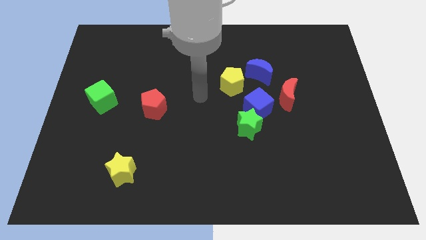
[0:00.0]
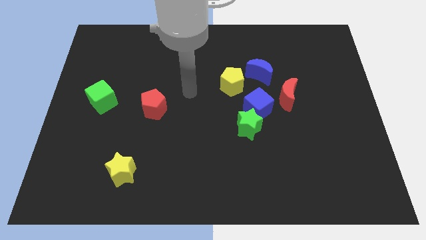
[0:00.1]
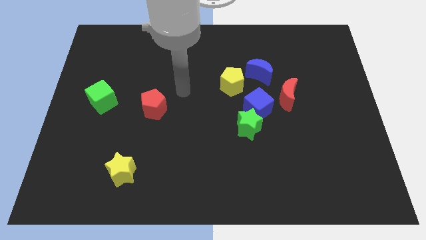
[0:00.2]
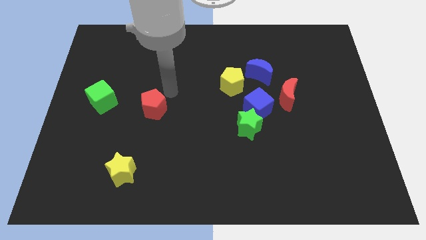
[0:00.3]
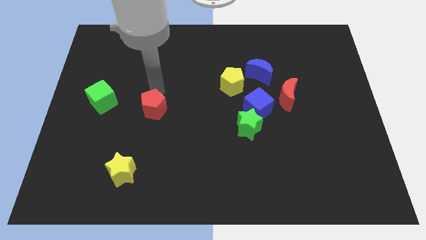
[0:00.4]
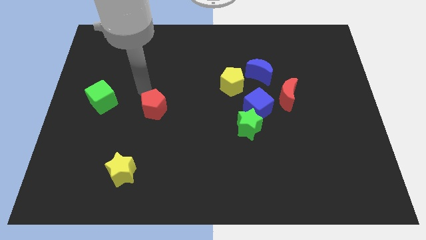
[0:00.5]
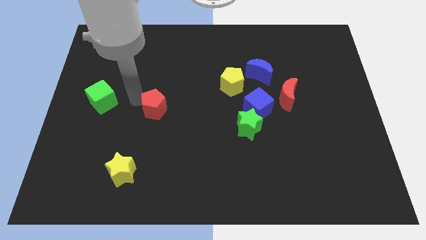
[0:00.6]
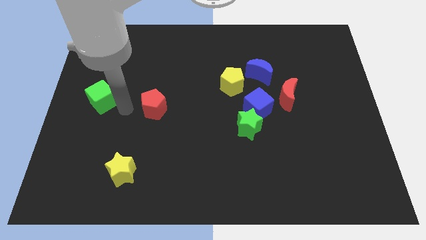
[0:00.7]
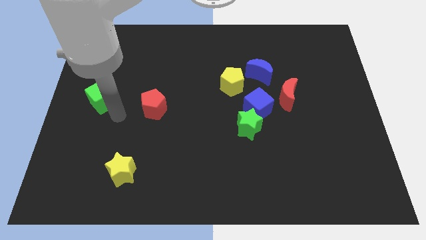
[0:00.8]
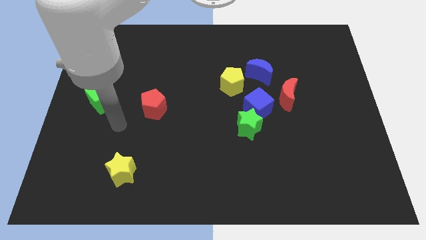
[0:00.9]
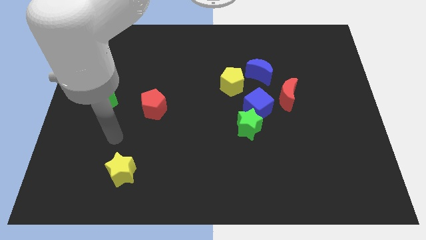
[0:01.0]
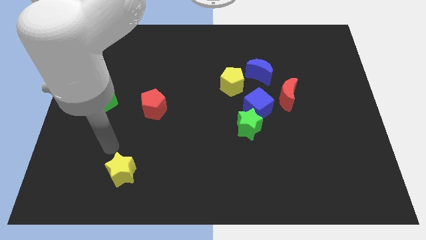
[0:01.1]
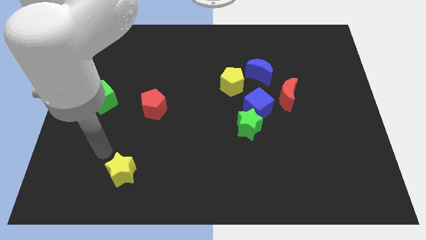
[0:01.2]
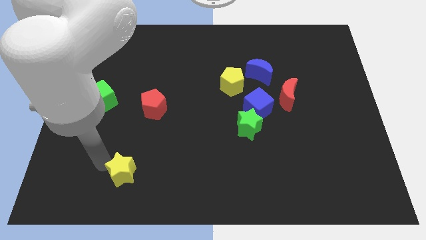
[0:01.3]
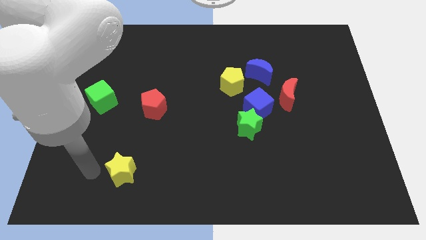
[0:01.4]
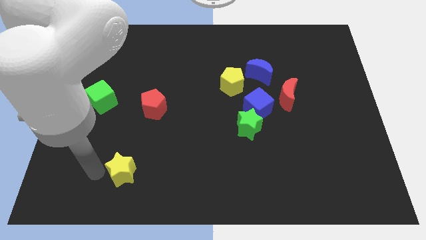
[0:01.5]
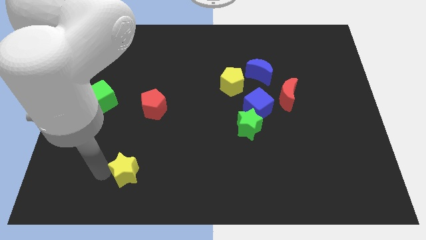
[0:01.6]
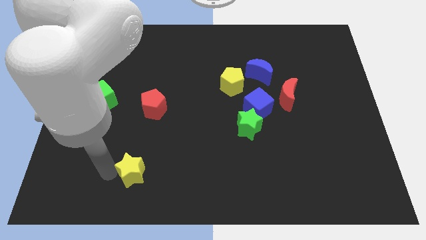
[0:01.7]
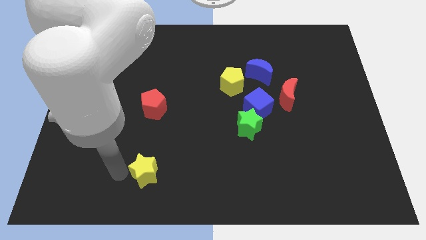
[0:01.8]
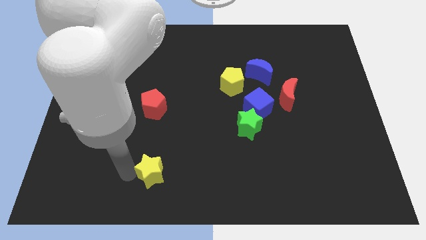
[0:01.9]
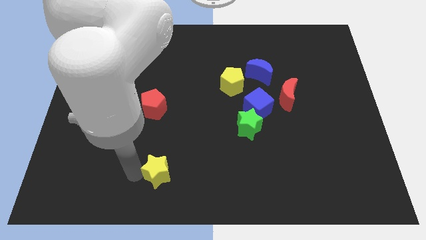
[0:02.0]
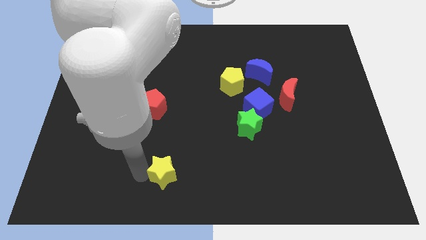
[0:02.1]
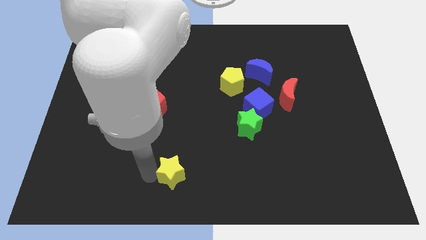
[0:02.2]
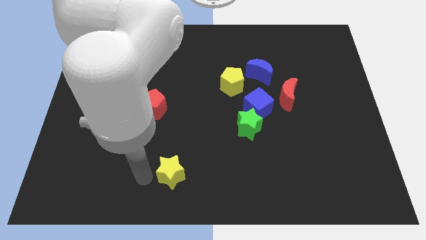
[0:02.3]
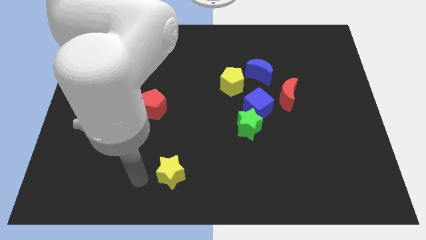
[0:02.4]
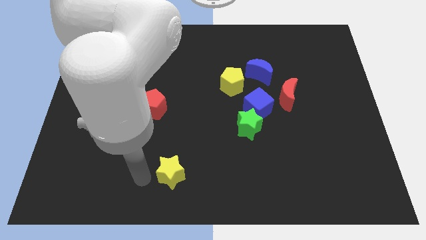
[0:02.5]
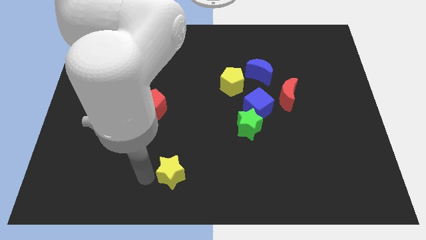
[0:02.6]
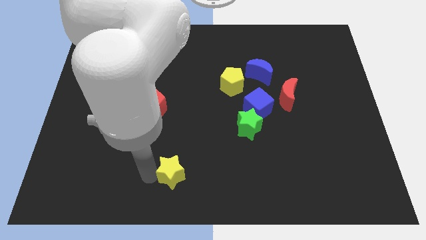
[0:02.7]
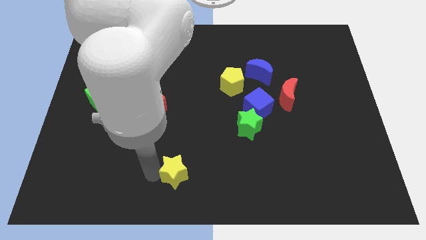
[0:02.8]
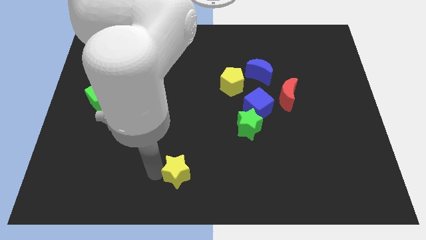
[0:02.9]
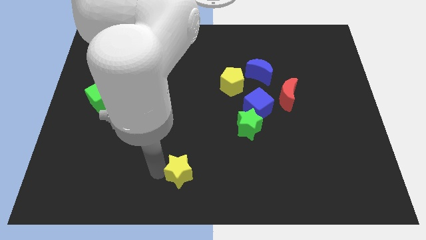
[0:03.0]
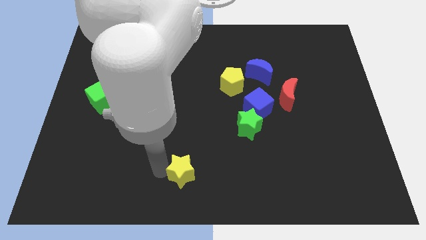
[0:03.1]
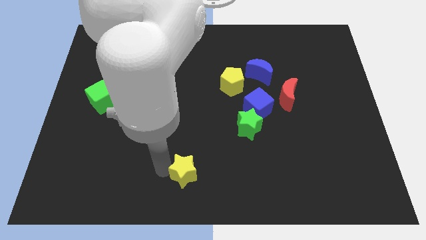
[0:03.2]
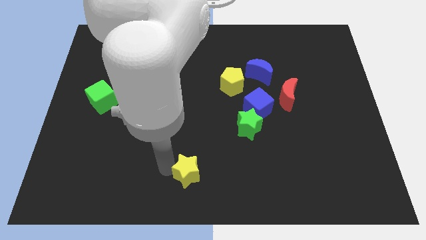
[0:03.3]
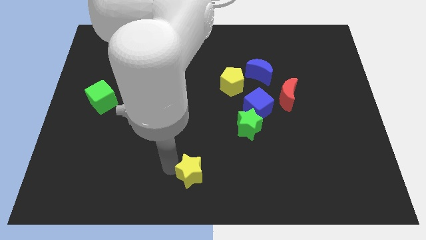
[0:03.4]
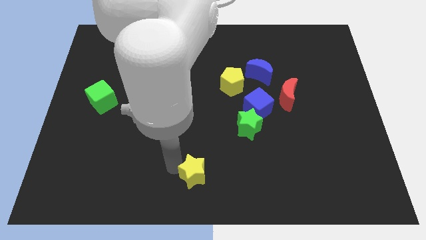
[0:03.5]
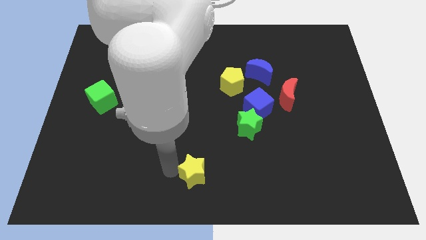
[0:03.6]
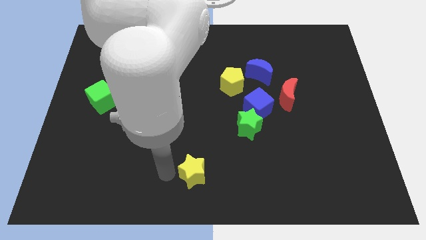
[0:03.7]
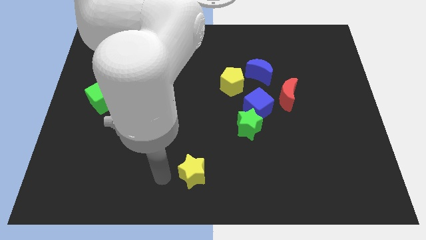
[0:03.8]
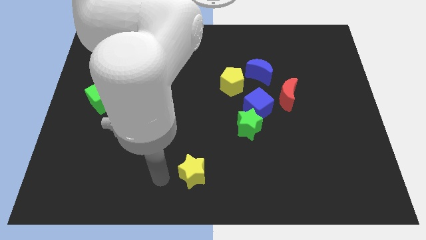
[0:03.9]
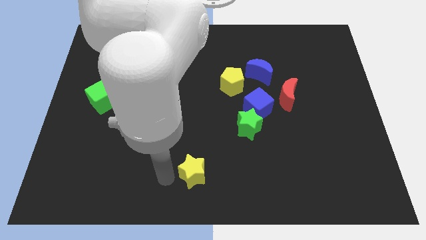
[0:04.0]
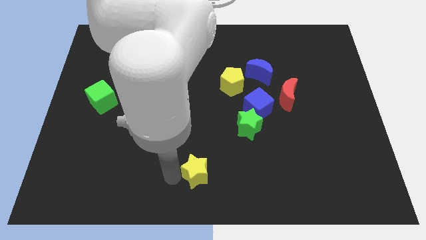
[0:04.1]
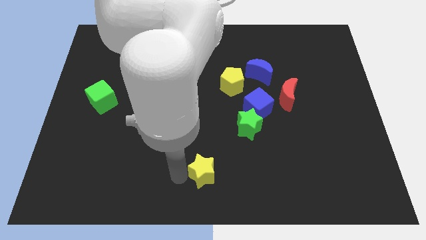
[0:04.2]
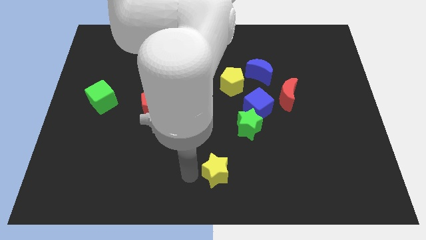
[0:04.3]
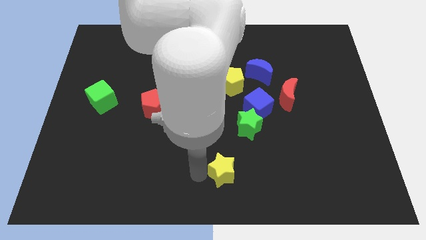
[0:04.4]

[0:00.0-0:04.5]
move the yellow star right

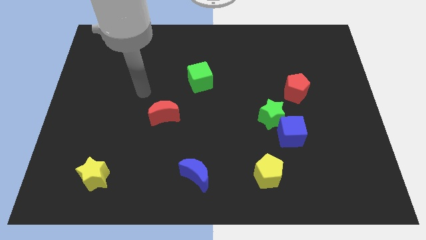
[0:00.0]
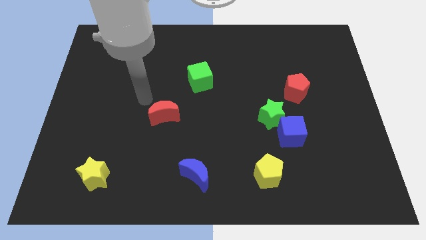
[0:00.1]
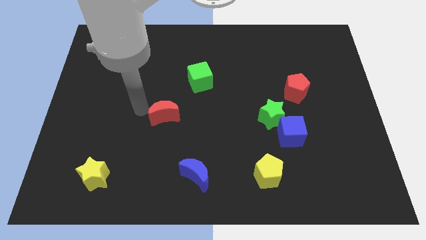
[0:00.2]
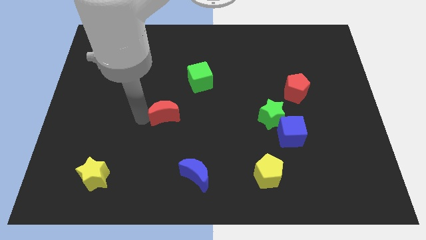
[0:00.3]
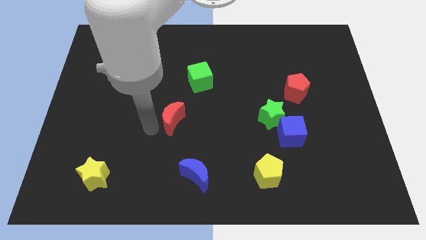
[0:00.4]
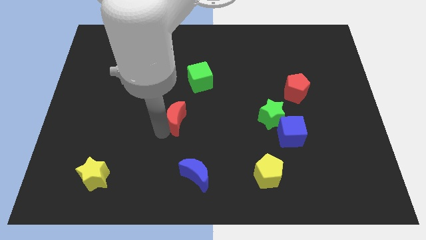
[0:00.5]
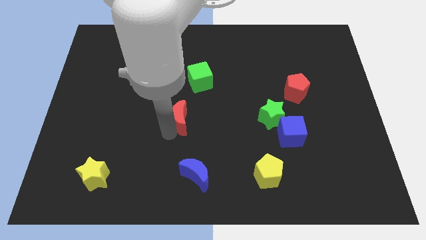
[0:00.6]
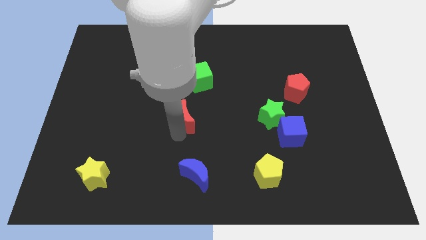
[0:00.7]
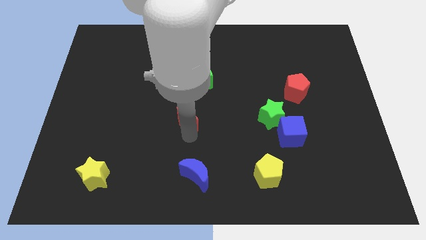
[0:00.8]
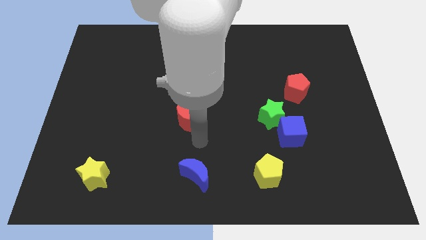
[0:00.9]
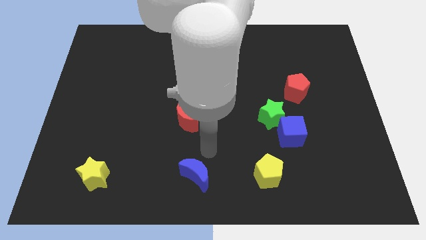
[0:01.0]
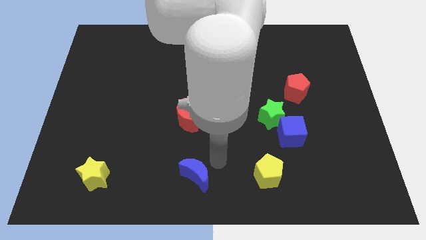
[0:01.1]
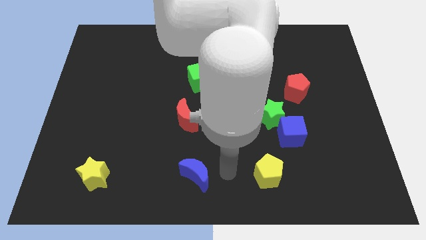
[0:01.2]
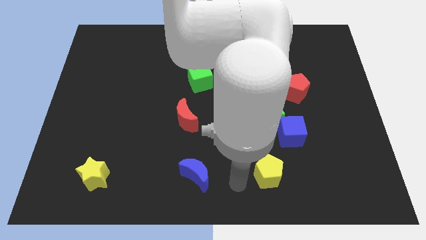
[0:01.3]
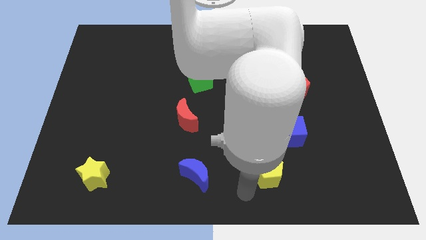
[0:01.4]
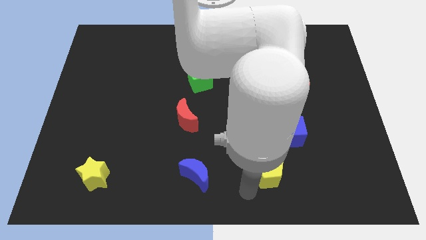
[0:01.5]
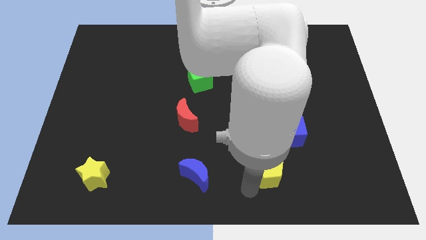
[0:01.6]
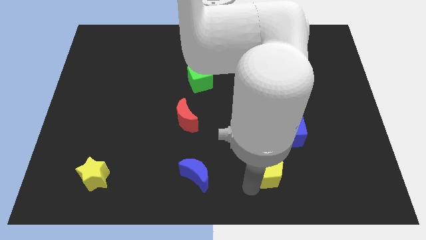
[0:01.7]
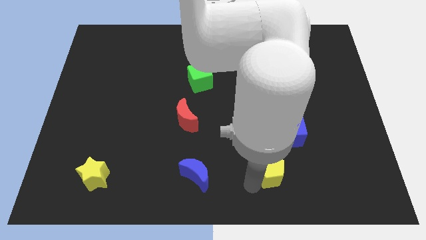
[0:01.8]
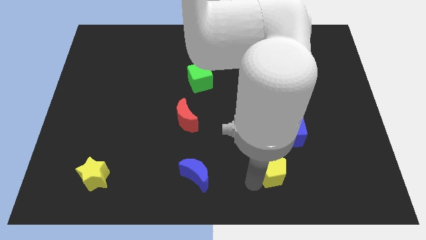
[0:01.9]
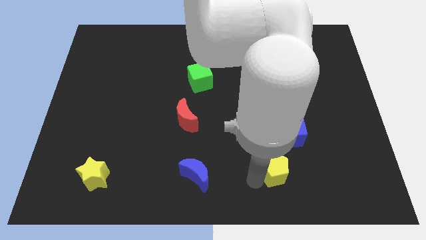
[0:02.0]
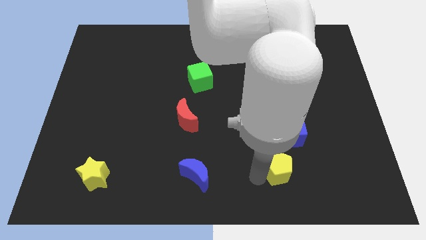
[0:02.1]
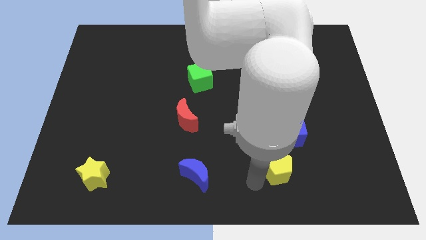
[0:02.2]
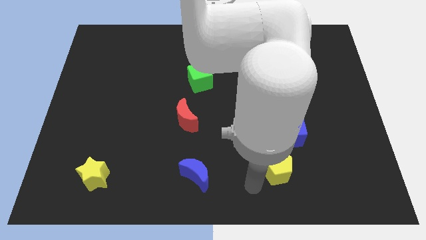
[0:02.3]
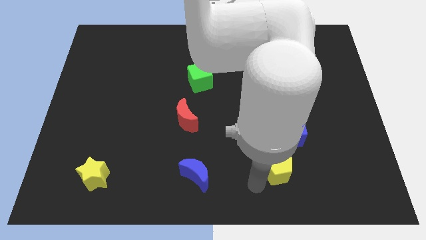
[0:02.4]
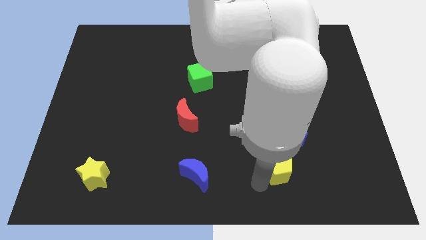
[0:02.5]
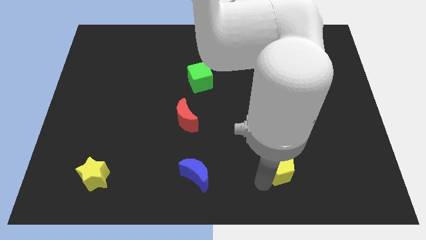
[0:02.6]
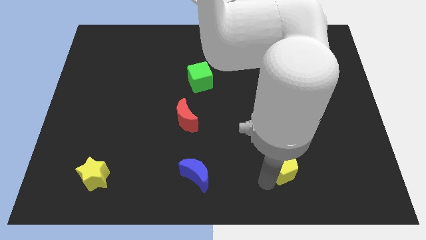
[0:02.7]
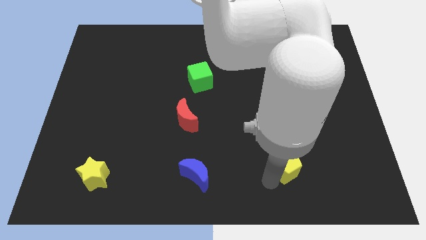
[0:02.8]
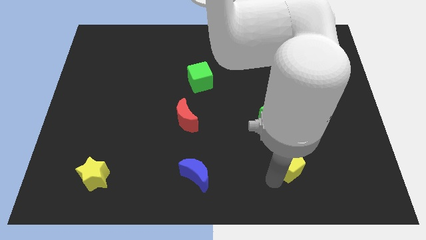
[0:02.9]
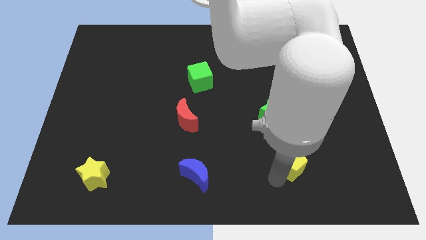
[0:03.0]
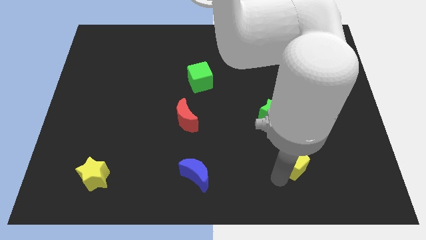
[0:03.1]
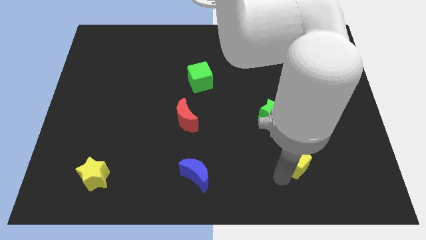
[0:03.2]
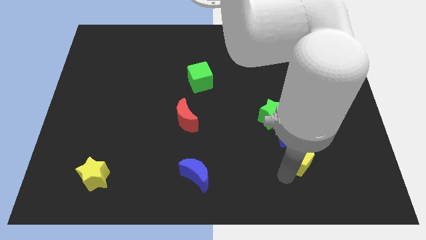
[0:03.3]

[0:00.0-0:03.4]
push the yellow pentagon diagonally upwards and right a little

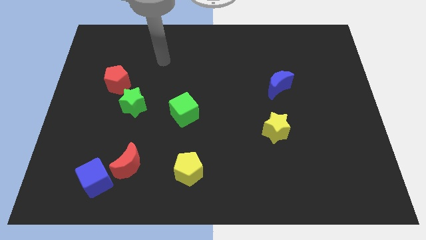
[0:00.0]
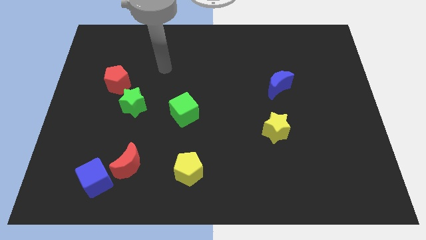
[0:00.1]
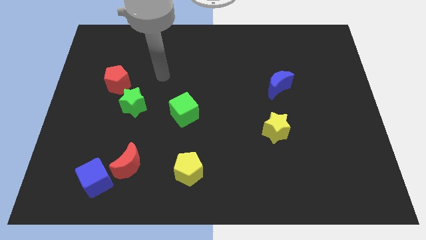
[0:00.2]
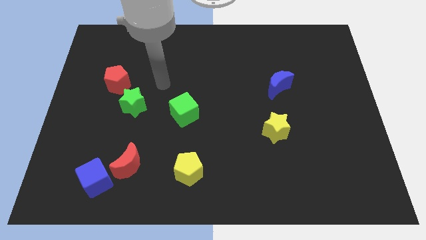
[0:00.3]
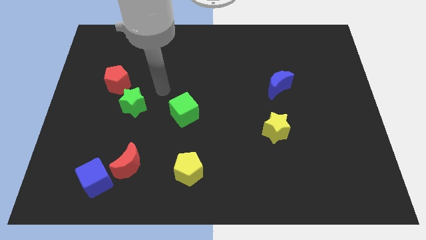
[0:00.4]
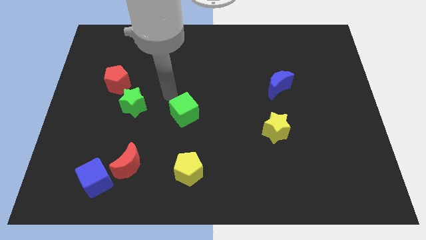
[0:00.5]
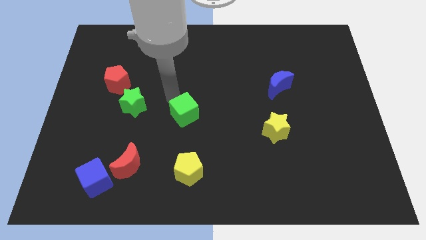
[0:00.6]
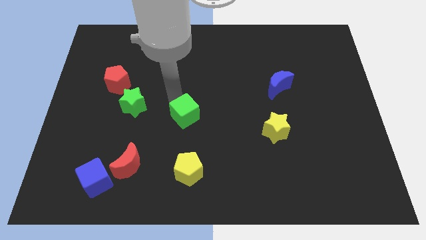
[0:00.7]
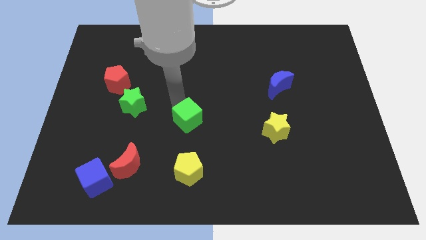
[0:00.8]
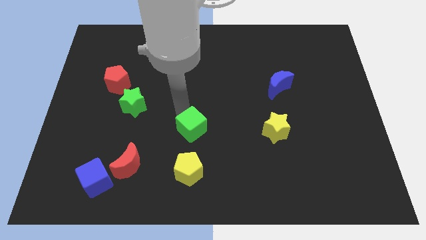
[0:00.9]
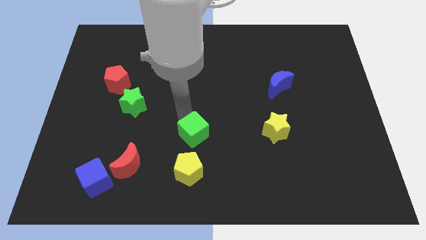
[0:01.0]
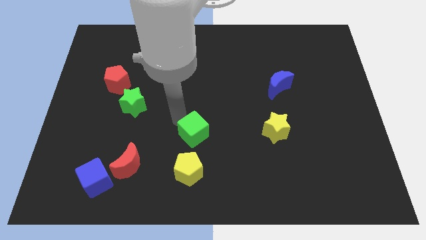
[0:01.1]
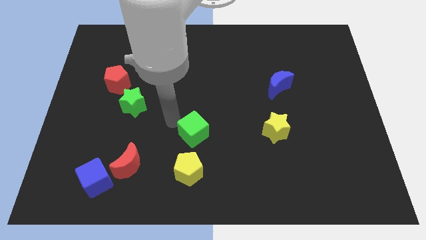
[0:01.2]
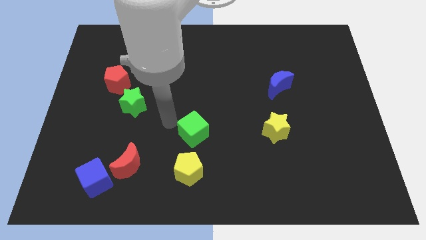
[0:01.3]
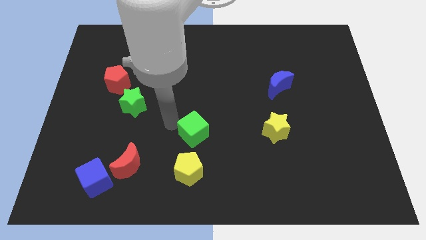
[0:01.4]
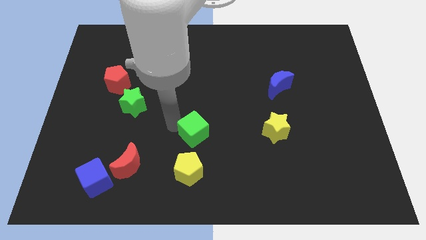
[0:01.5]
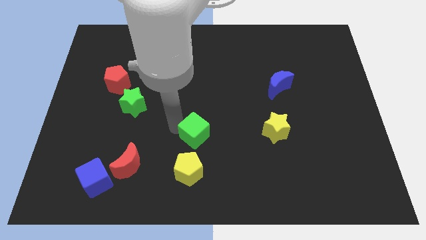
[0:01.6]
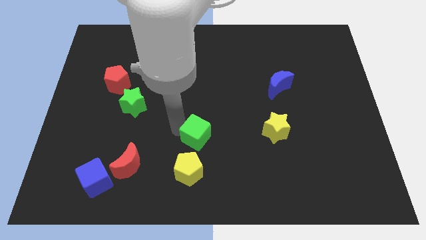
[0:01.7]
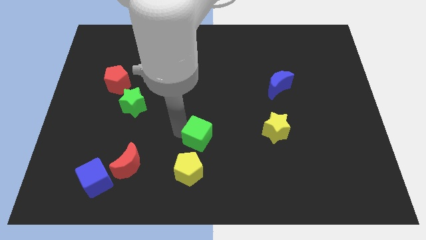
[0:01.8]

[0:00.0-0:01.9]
slightly push the green cube diagonally downwards and to the right
